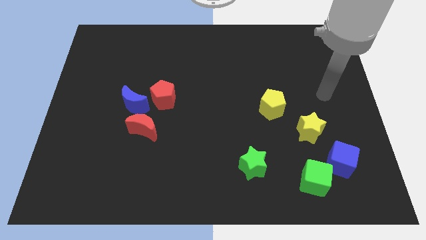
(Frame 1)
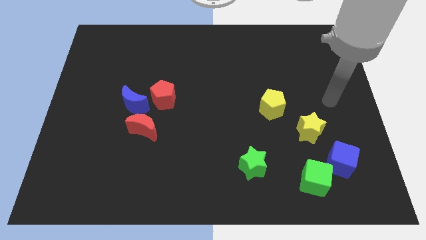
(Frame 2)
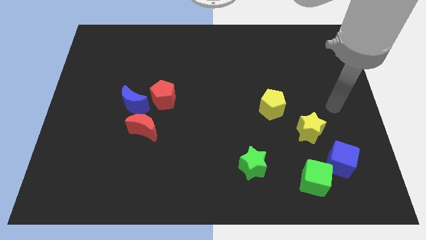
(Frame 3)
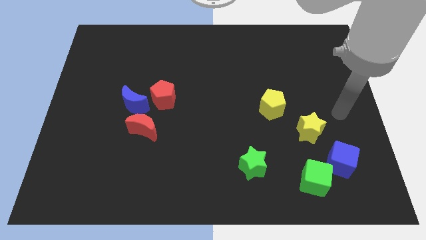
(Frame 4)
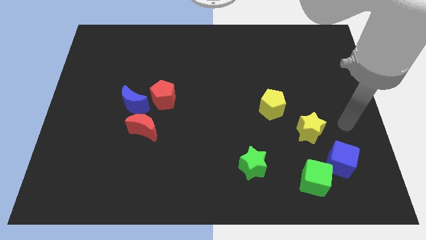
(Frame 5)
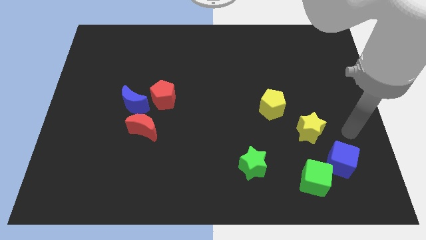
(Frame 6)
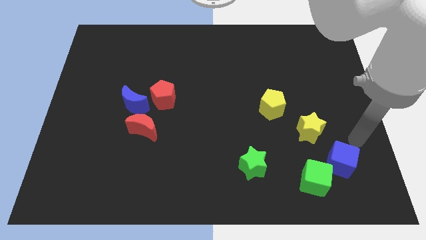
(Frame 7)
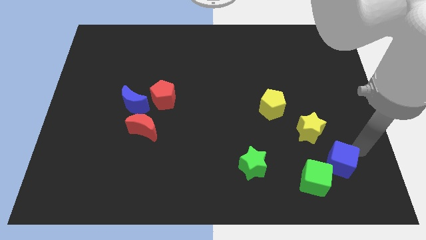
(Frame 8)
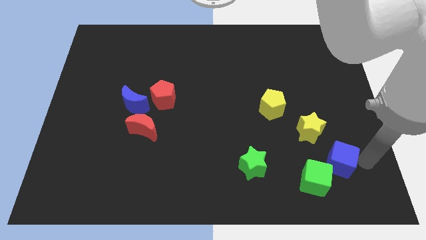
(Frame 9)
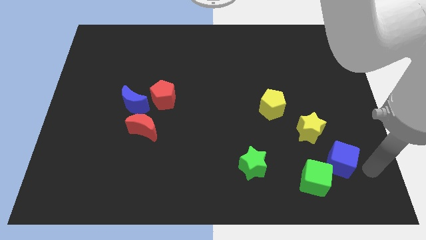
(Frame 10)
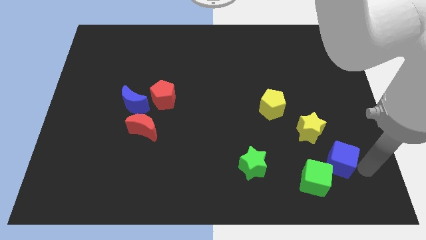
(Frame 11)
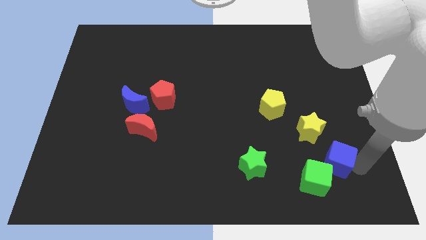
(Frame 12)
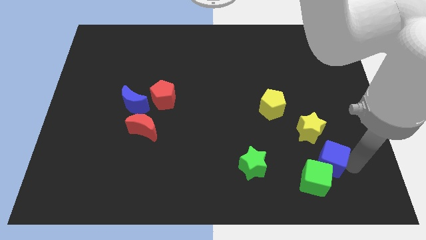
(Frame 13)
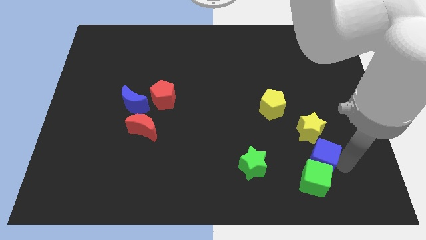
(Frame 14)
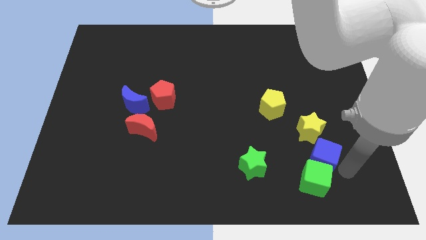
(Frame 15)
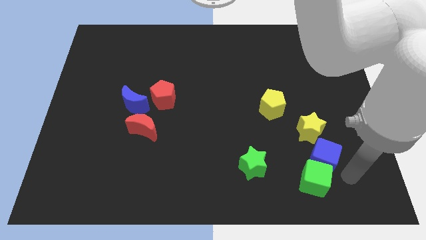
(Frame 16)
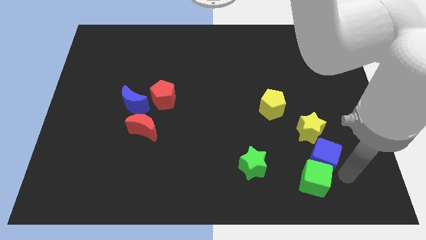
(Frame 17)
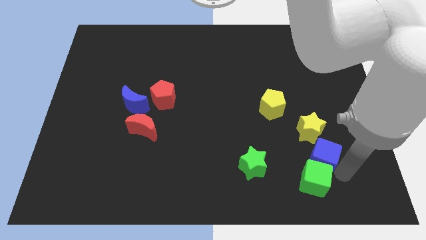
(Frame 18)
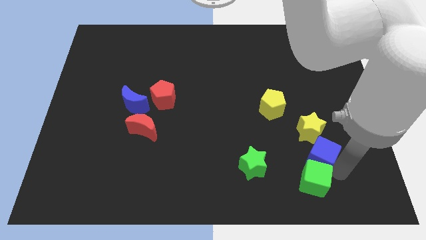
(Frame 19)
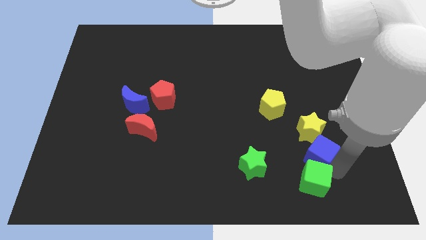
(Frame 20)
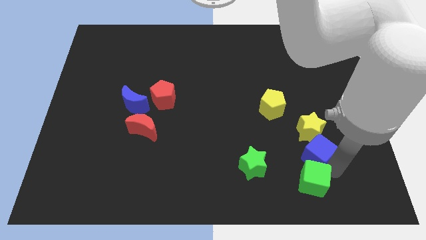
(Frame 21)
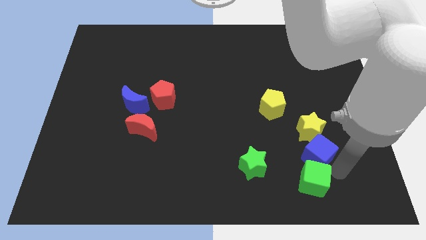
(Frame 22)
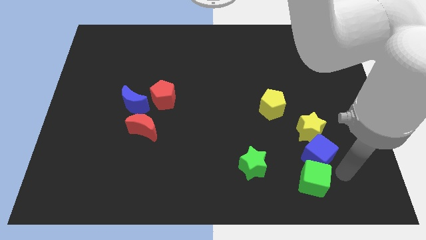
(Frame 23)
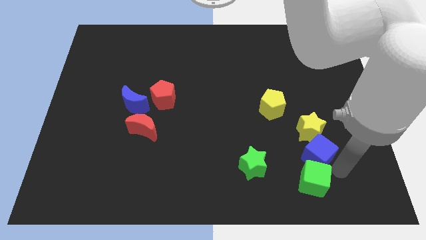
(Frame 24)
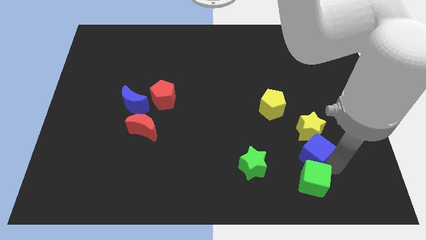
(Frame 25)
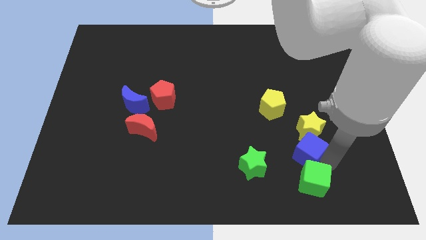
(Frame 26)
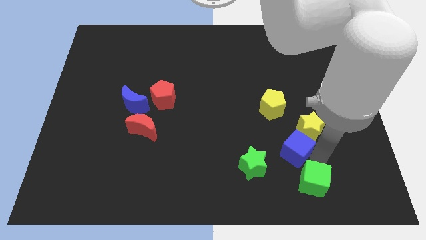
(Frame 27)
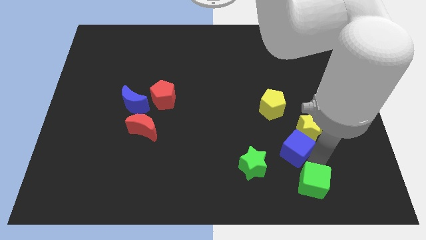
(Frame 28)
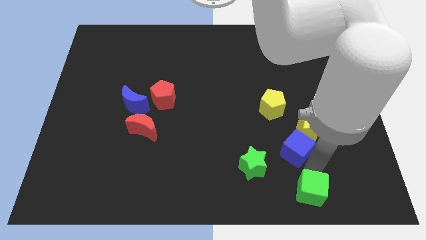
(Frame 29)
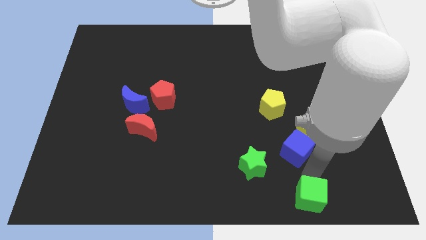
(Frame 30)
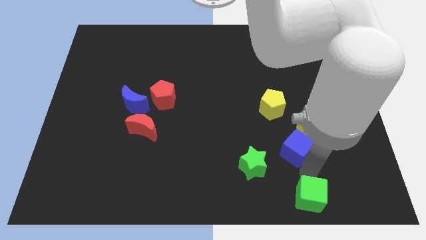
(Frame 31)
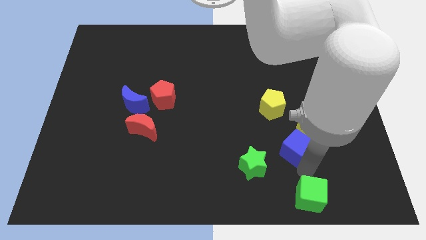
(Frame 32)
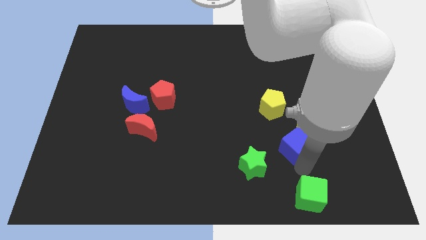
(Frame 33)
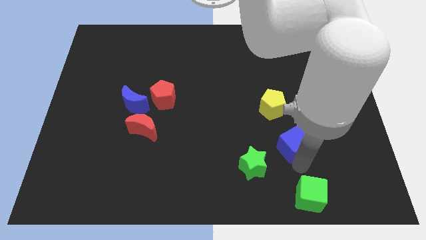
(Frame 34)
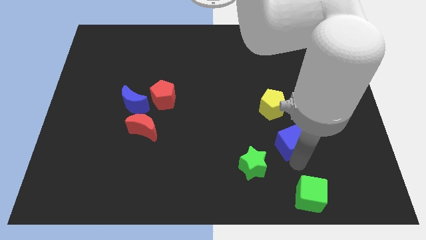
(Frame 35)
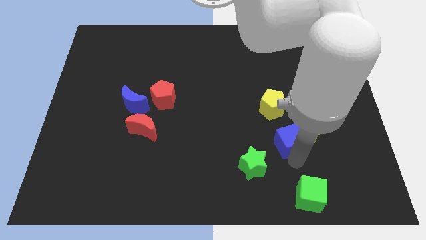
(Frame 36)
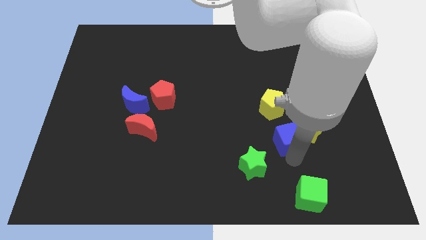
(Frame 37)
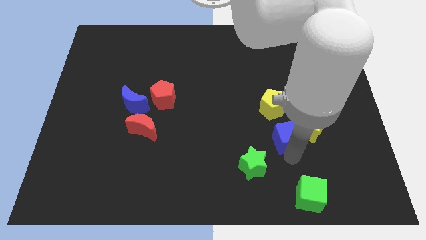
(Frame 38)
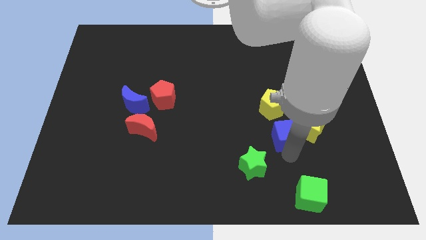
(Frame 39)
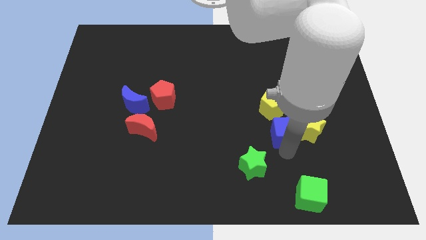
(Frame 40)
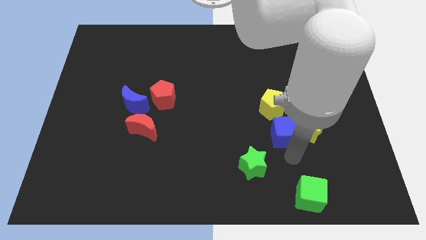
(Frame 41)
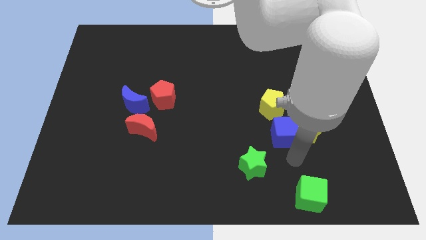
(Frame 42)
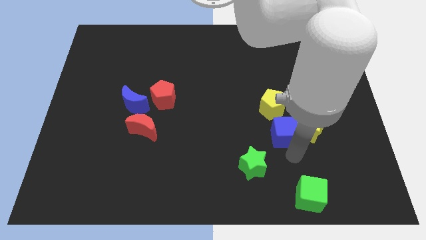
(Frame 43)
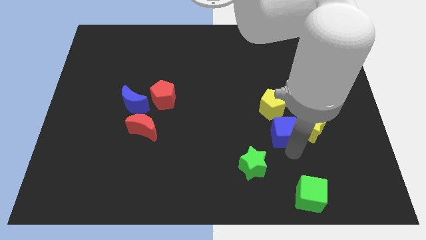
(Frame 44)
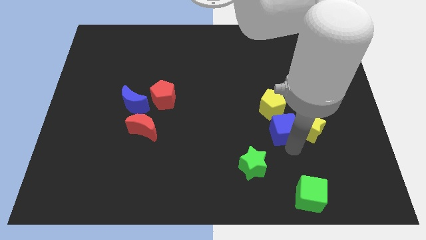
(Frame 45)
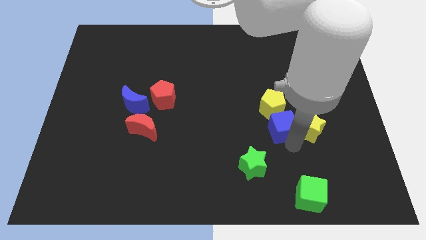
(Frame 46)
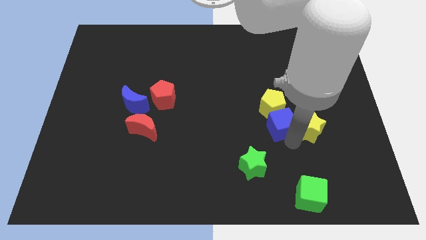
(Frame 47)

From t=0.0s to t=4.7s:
put the blue cube towards the yellow pentagon

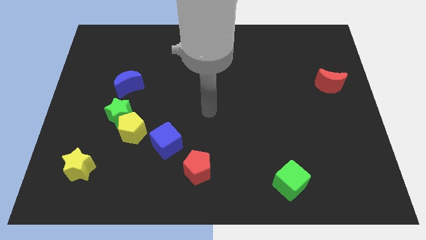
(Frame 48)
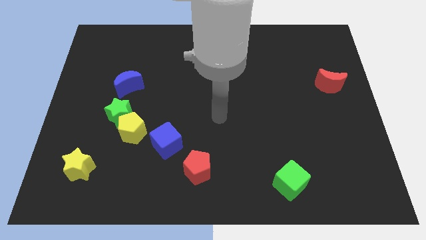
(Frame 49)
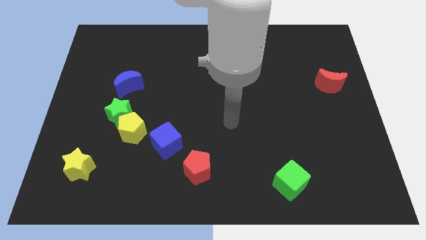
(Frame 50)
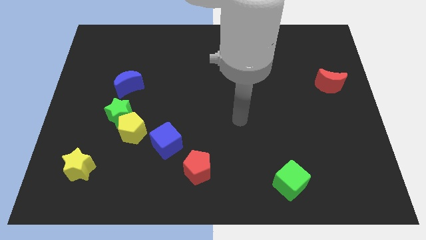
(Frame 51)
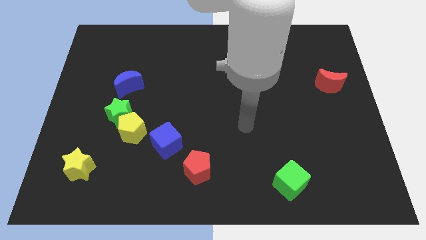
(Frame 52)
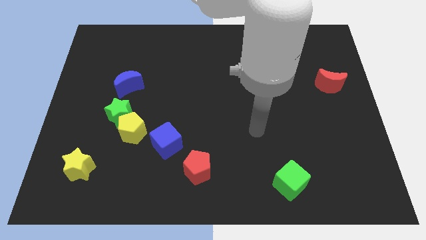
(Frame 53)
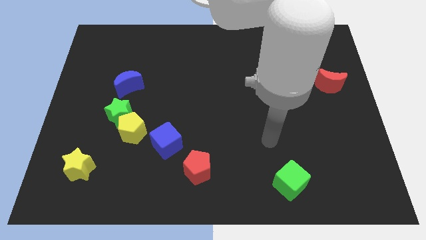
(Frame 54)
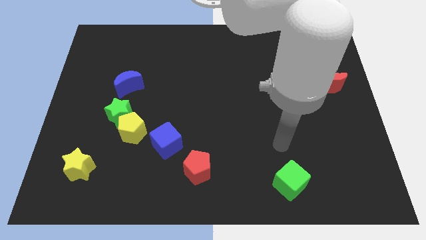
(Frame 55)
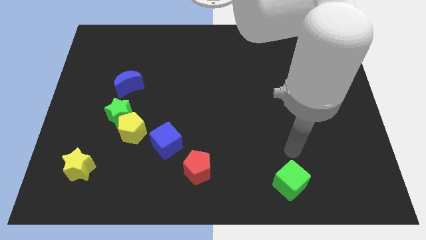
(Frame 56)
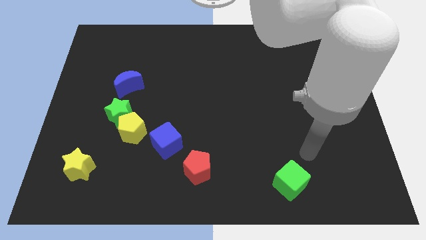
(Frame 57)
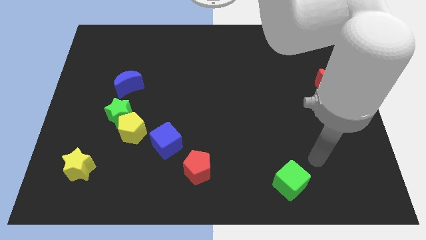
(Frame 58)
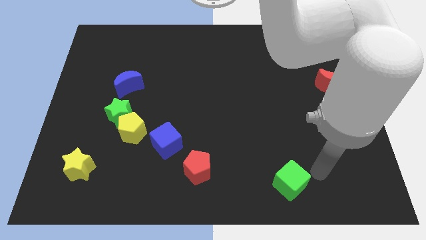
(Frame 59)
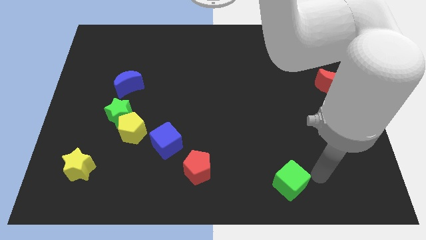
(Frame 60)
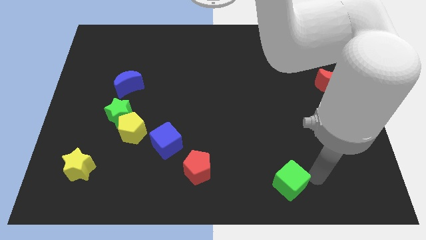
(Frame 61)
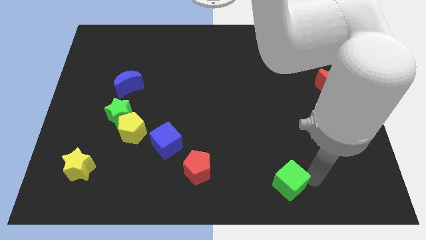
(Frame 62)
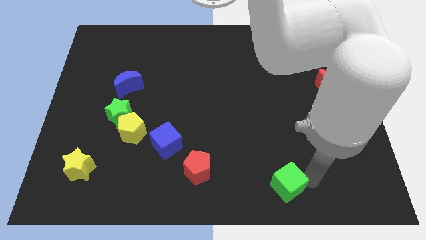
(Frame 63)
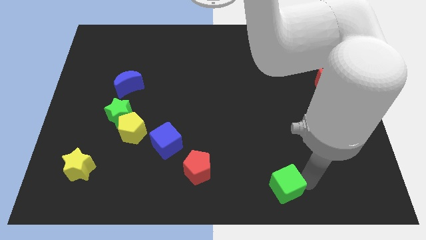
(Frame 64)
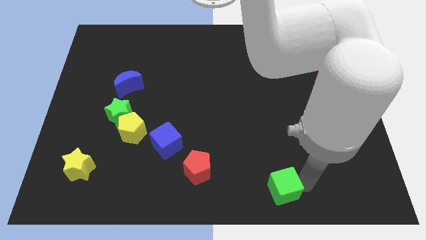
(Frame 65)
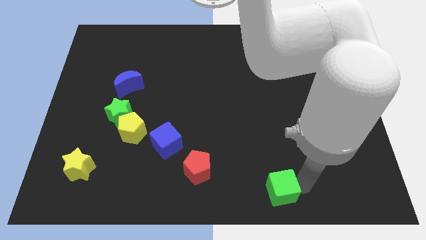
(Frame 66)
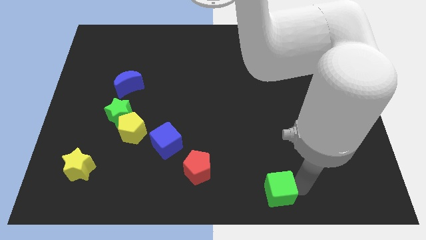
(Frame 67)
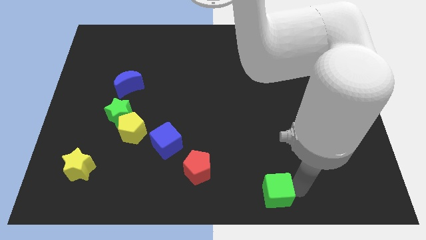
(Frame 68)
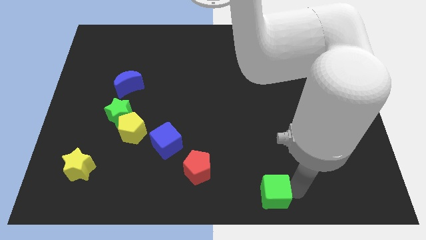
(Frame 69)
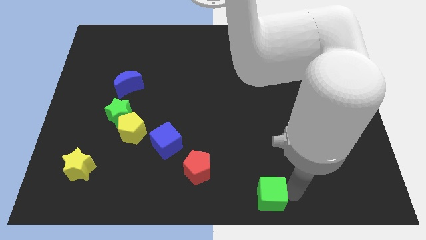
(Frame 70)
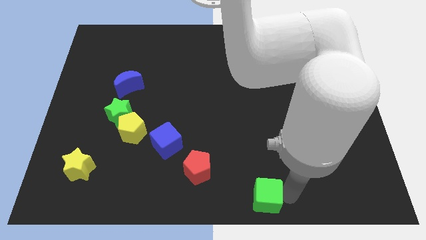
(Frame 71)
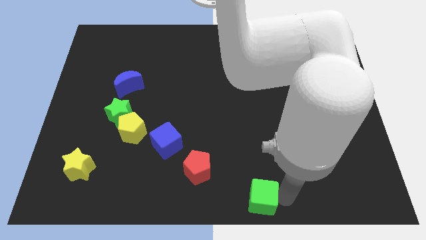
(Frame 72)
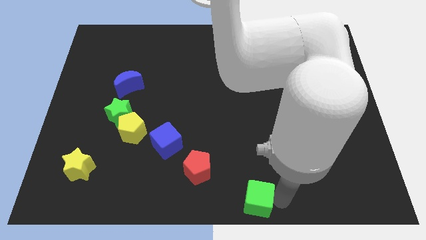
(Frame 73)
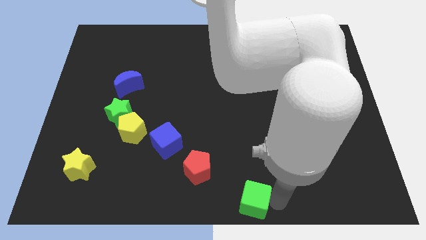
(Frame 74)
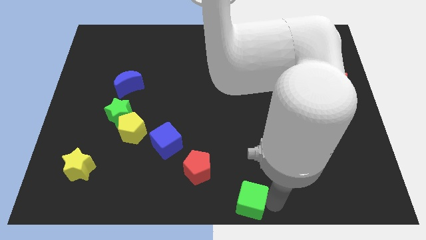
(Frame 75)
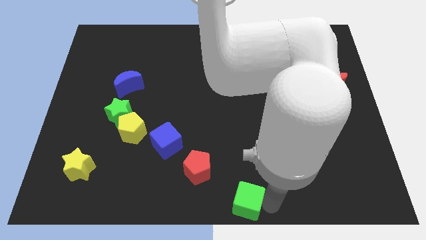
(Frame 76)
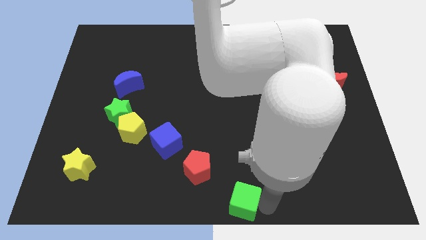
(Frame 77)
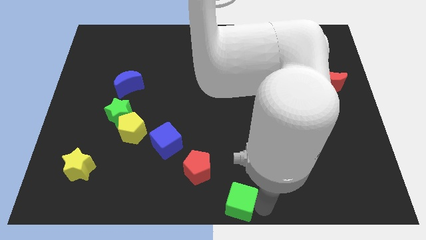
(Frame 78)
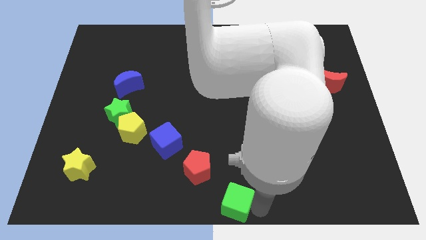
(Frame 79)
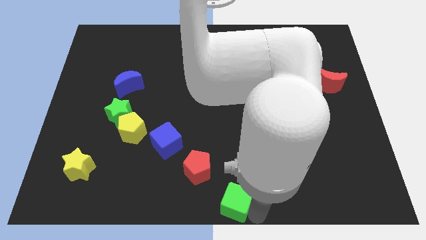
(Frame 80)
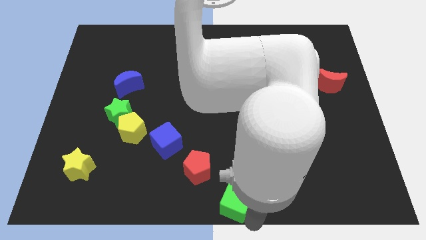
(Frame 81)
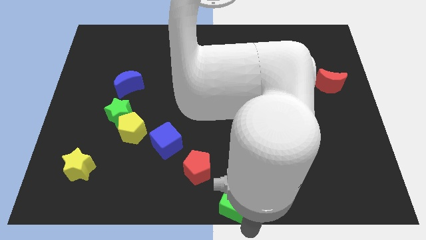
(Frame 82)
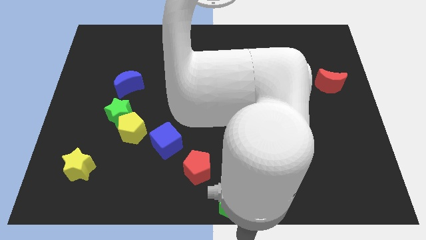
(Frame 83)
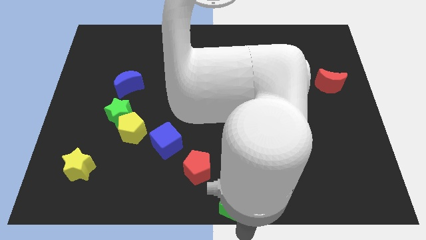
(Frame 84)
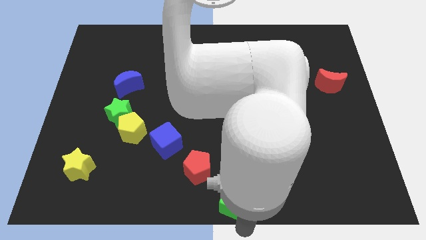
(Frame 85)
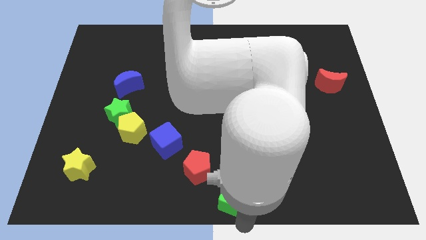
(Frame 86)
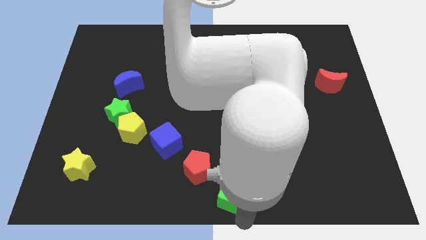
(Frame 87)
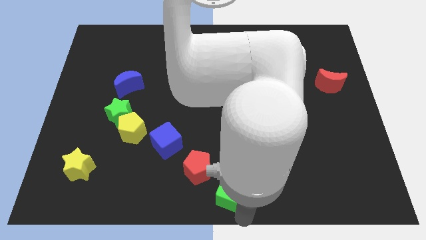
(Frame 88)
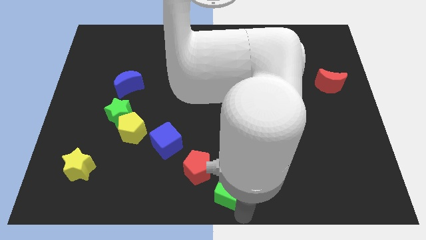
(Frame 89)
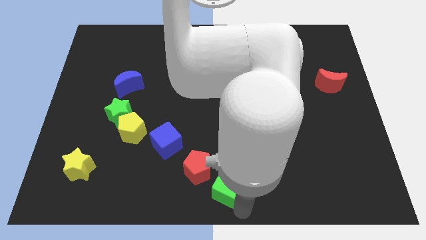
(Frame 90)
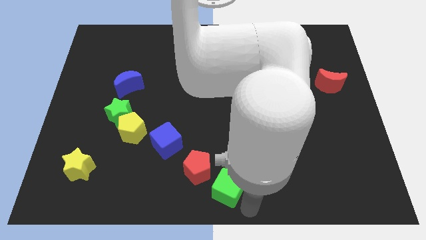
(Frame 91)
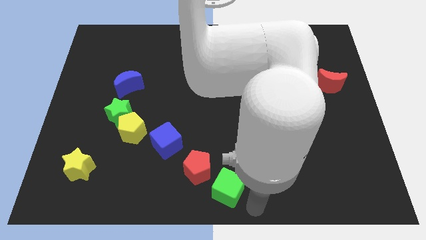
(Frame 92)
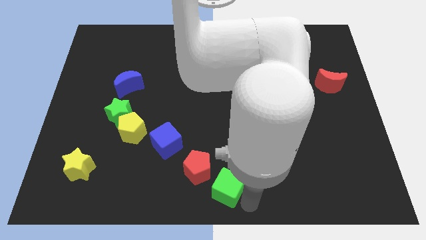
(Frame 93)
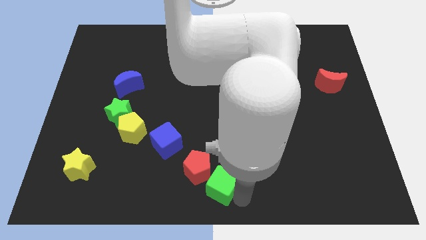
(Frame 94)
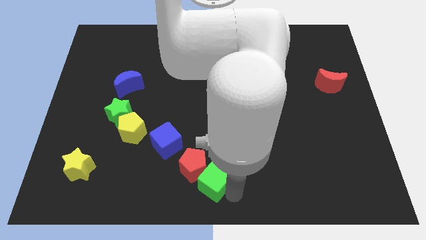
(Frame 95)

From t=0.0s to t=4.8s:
move the green cube to the red pentagon
